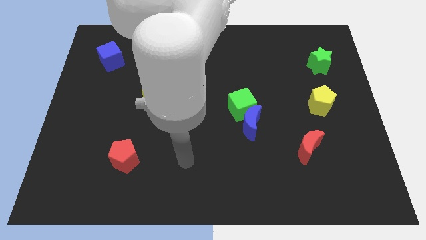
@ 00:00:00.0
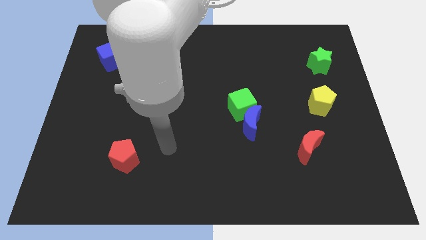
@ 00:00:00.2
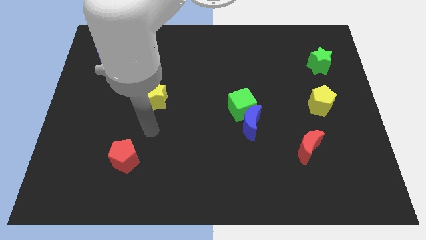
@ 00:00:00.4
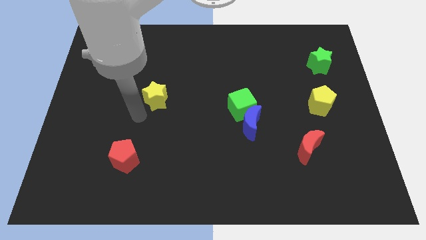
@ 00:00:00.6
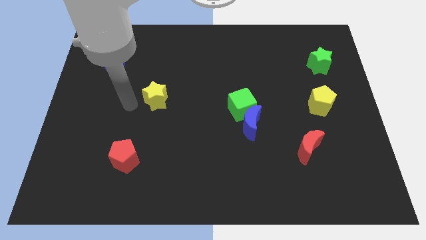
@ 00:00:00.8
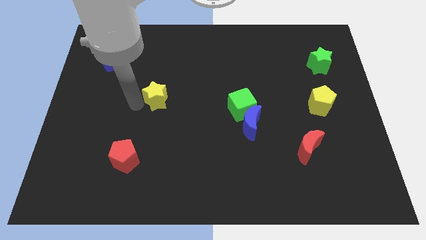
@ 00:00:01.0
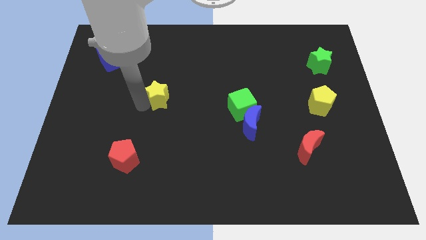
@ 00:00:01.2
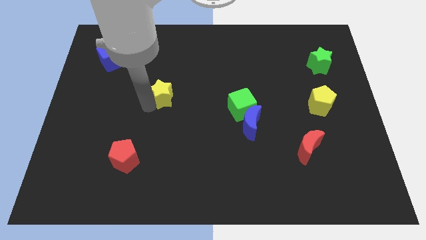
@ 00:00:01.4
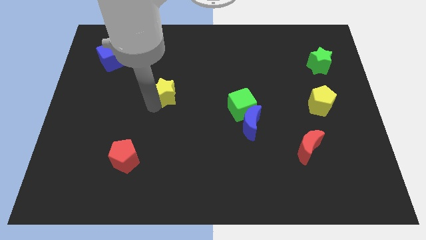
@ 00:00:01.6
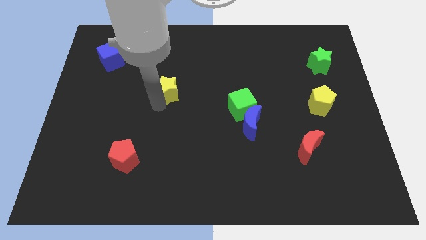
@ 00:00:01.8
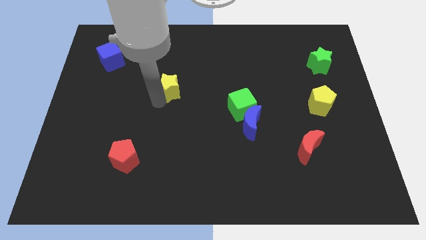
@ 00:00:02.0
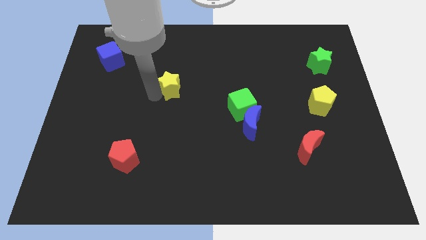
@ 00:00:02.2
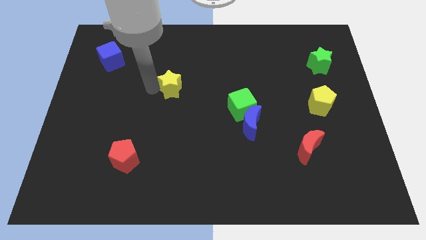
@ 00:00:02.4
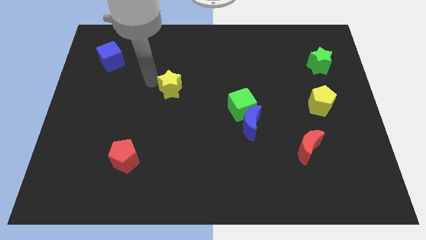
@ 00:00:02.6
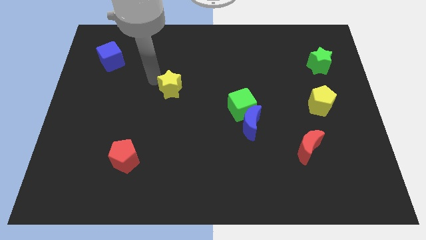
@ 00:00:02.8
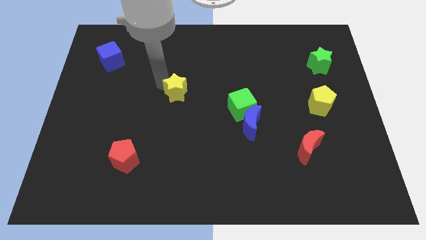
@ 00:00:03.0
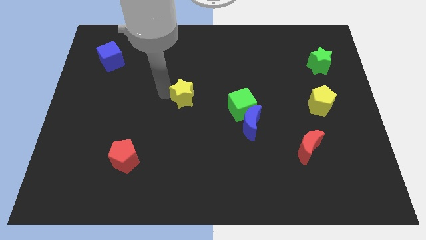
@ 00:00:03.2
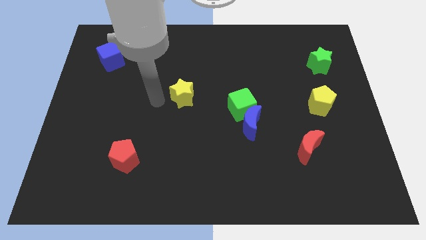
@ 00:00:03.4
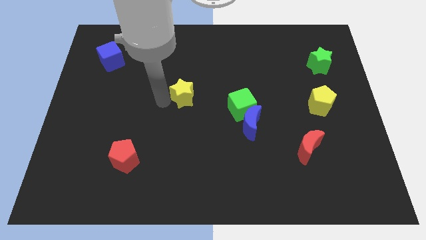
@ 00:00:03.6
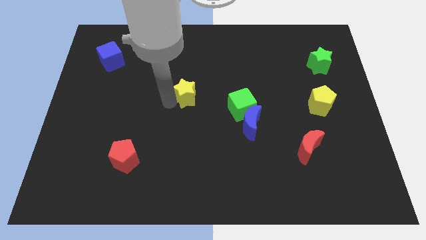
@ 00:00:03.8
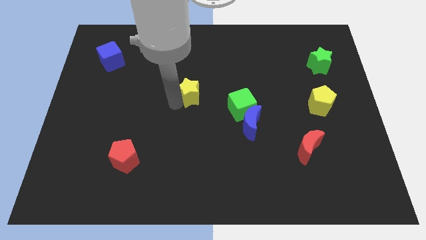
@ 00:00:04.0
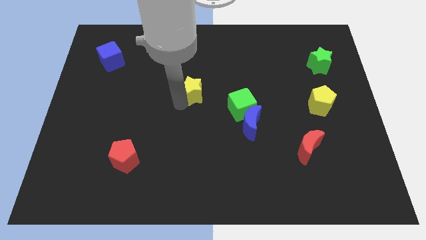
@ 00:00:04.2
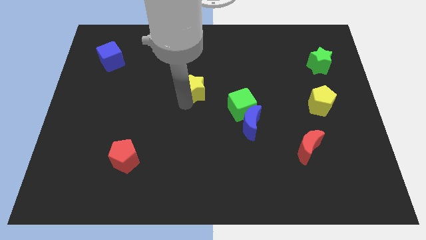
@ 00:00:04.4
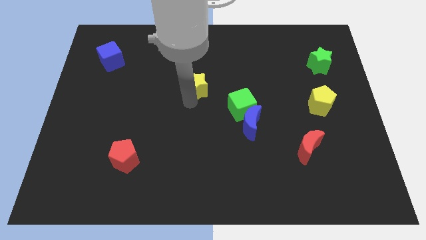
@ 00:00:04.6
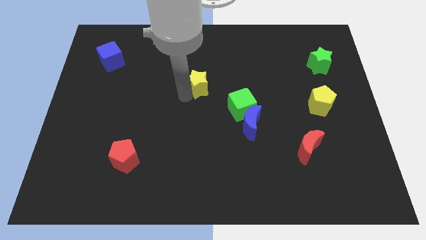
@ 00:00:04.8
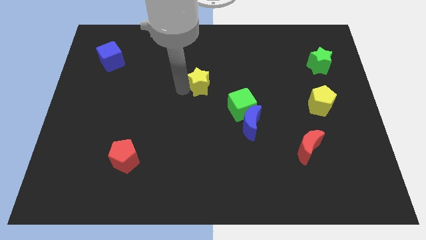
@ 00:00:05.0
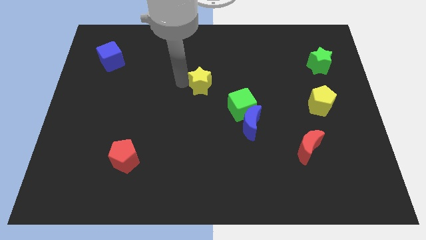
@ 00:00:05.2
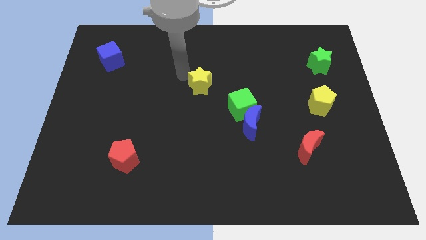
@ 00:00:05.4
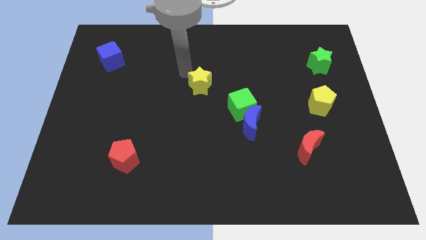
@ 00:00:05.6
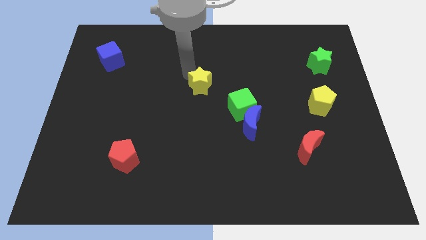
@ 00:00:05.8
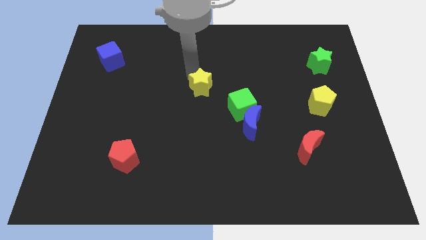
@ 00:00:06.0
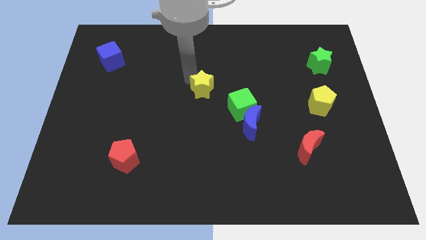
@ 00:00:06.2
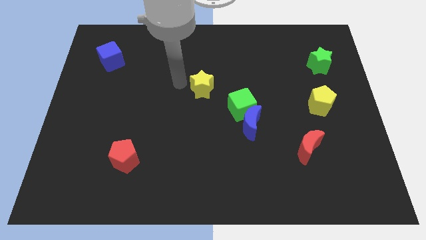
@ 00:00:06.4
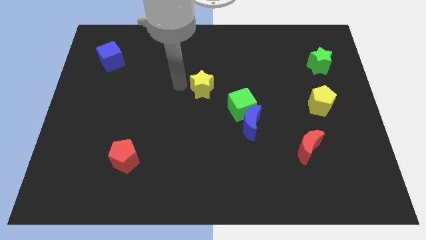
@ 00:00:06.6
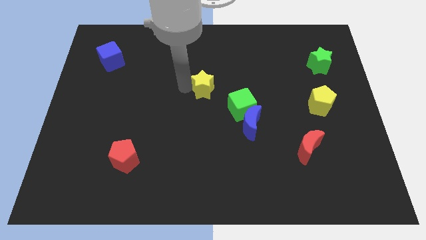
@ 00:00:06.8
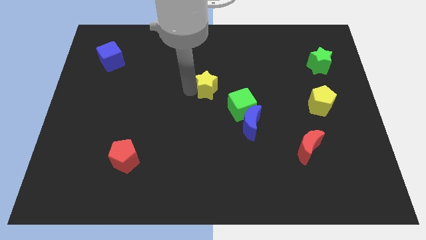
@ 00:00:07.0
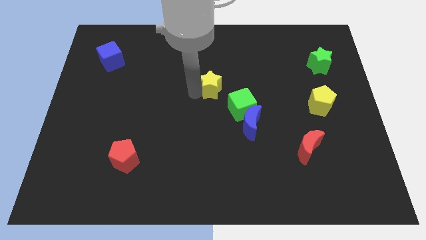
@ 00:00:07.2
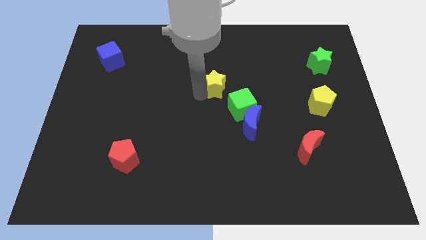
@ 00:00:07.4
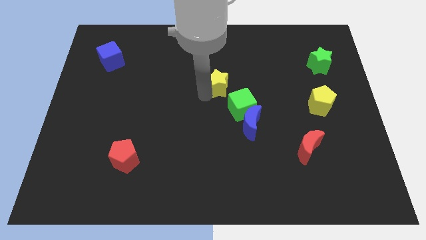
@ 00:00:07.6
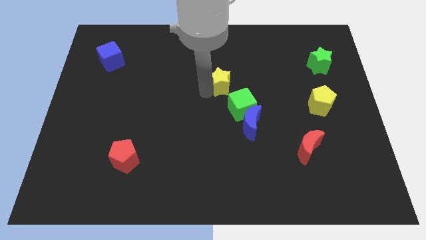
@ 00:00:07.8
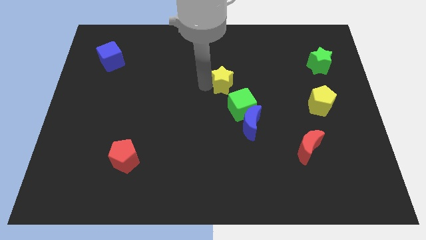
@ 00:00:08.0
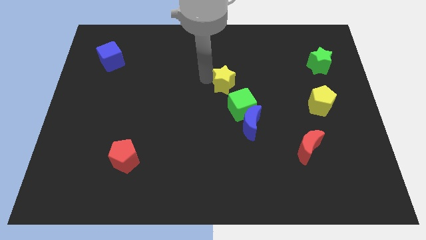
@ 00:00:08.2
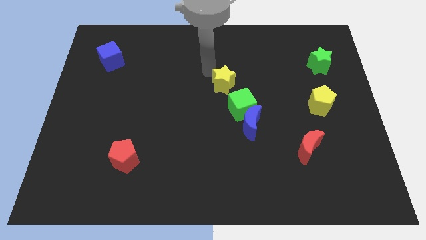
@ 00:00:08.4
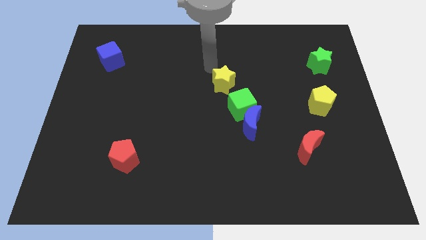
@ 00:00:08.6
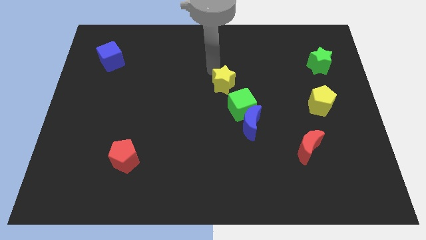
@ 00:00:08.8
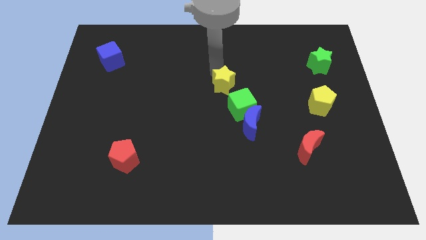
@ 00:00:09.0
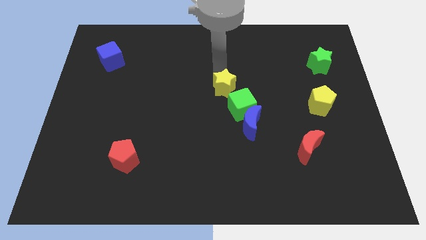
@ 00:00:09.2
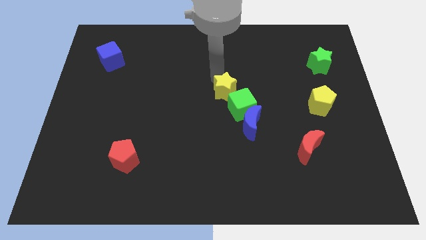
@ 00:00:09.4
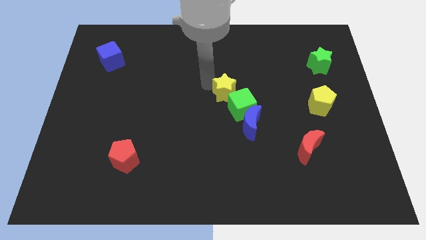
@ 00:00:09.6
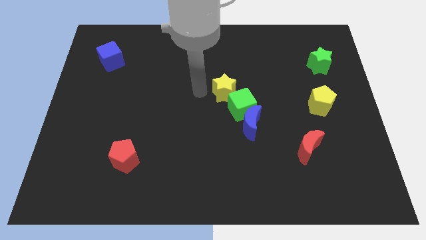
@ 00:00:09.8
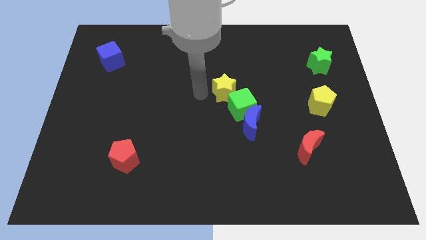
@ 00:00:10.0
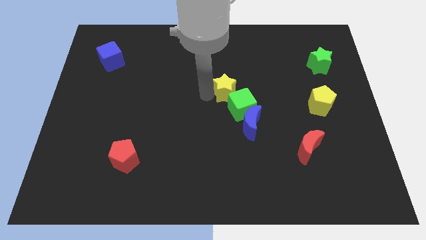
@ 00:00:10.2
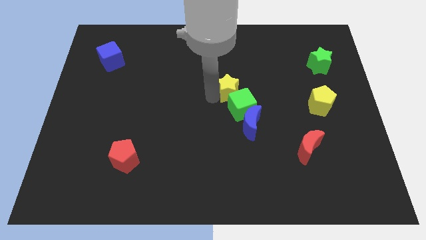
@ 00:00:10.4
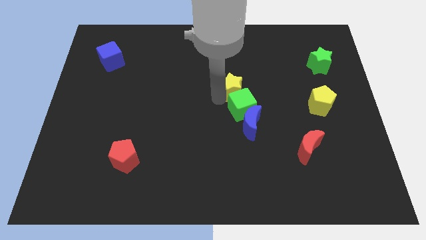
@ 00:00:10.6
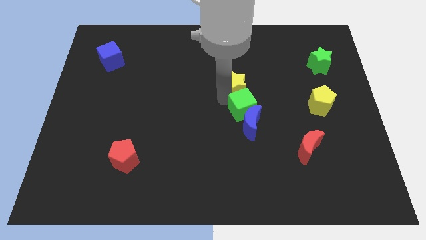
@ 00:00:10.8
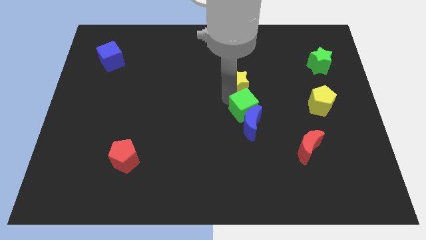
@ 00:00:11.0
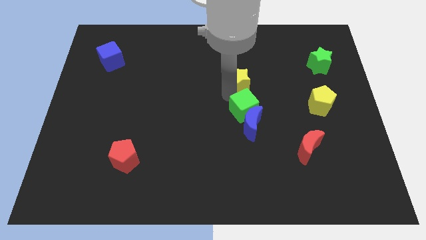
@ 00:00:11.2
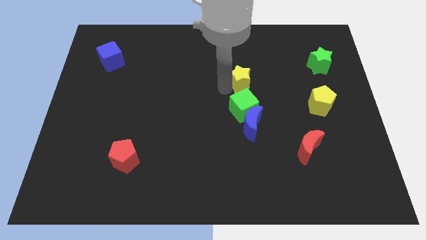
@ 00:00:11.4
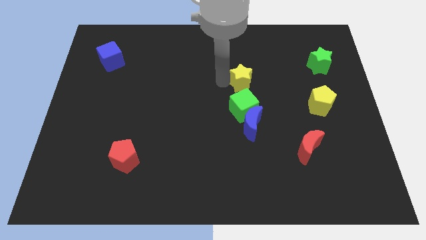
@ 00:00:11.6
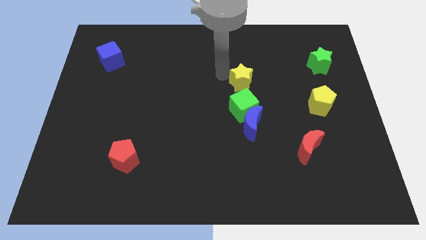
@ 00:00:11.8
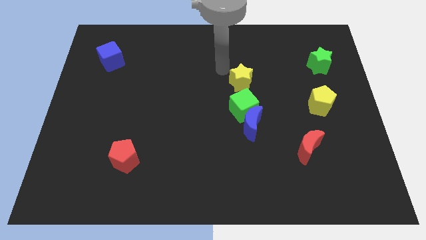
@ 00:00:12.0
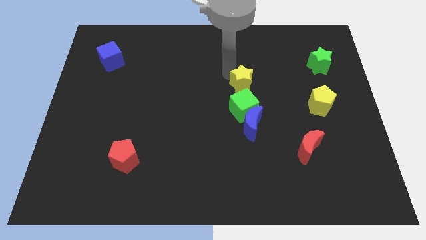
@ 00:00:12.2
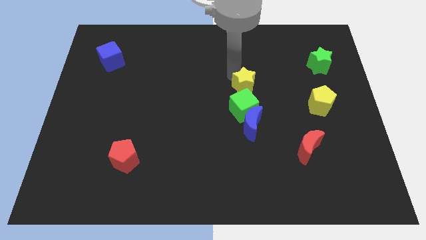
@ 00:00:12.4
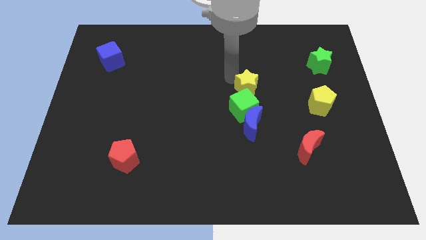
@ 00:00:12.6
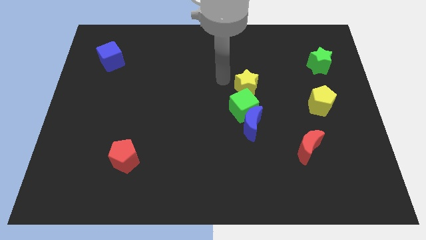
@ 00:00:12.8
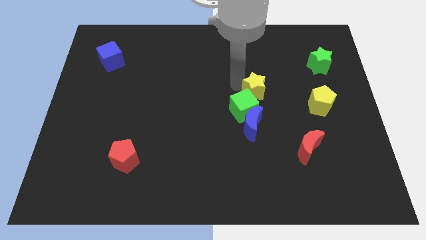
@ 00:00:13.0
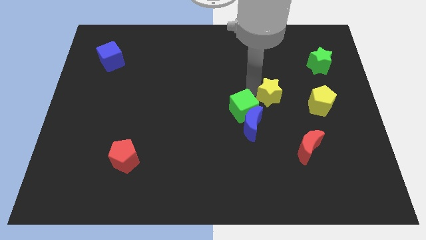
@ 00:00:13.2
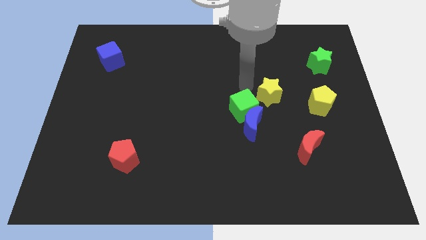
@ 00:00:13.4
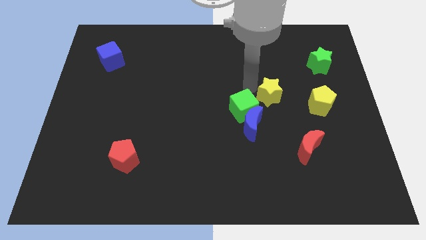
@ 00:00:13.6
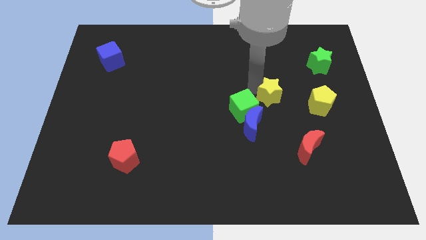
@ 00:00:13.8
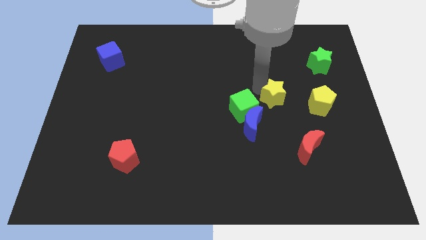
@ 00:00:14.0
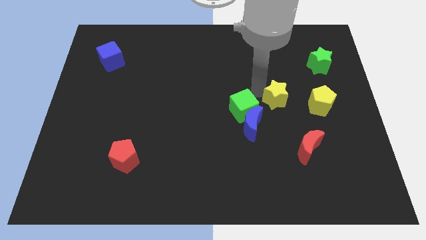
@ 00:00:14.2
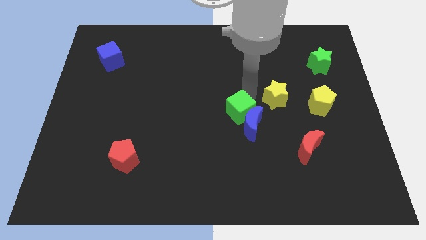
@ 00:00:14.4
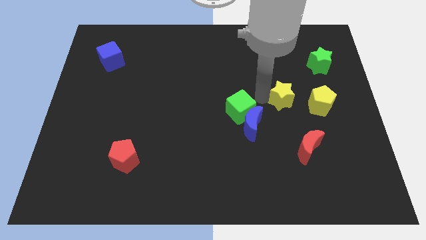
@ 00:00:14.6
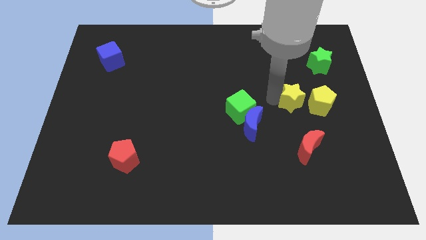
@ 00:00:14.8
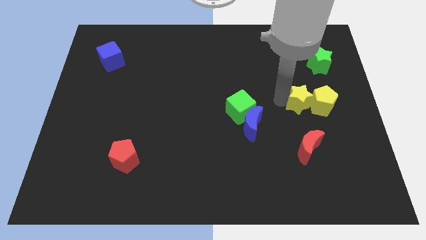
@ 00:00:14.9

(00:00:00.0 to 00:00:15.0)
push the yellow star close to the yellow pentagon
